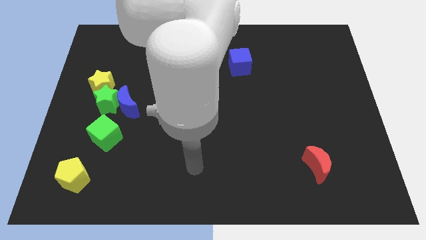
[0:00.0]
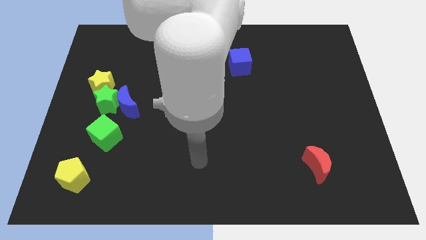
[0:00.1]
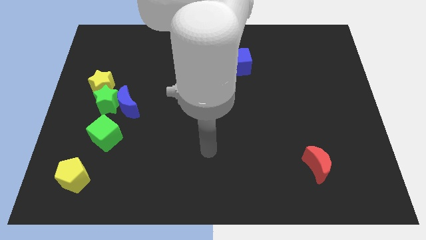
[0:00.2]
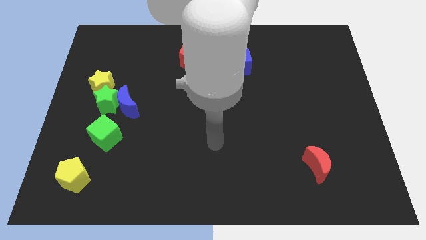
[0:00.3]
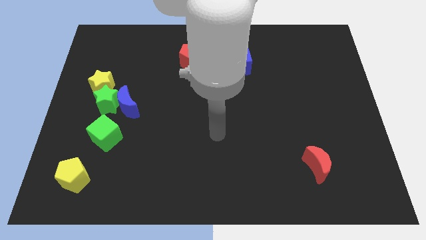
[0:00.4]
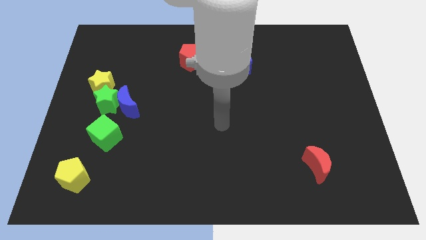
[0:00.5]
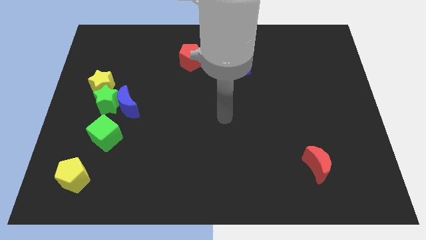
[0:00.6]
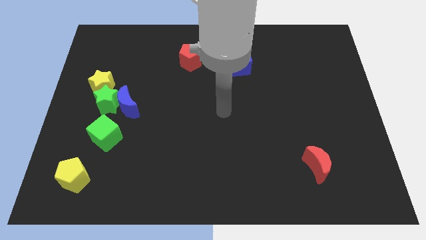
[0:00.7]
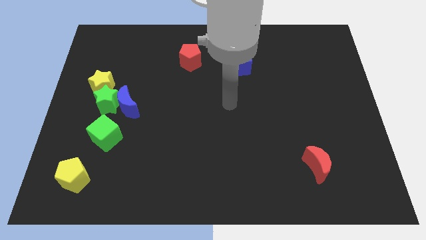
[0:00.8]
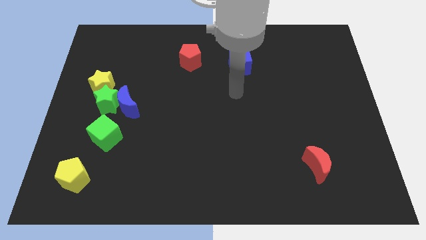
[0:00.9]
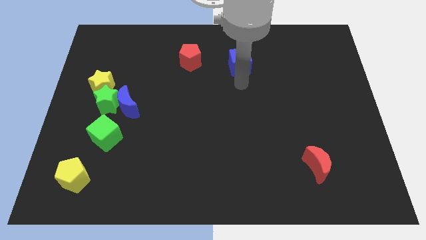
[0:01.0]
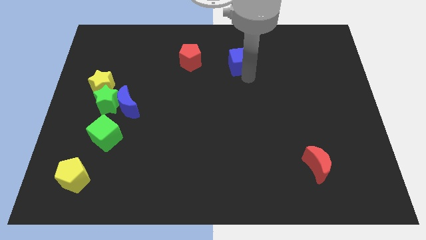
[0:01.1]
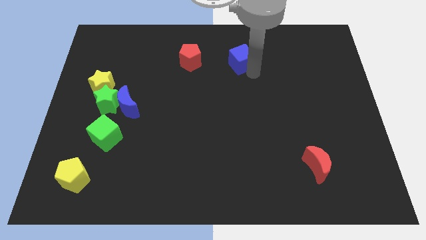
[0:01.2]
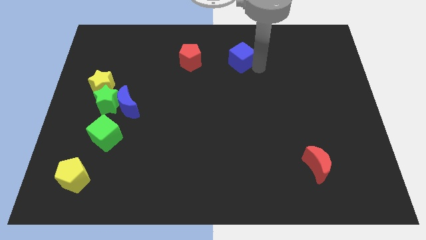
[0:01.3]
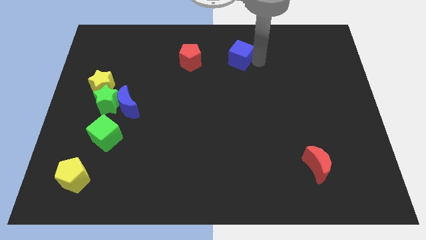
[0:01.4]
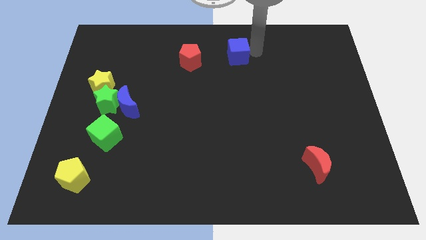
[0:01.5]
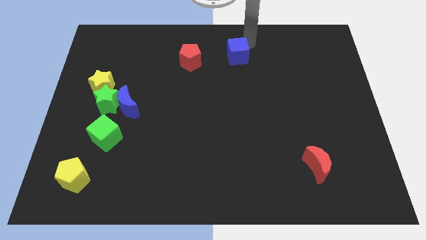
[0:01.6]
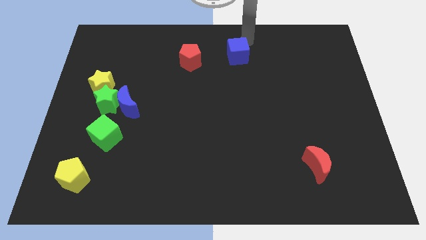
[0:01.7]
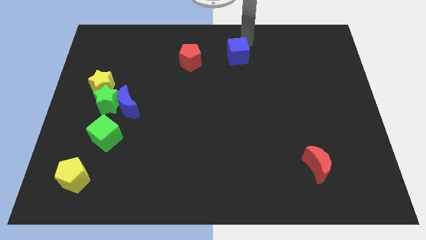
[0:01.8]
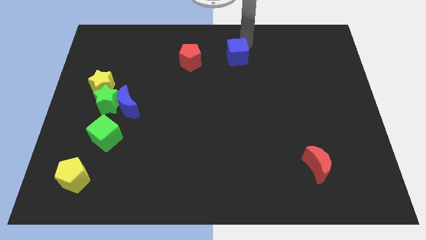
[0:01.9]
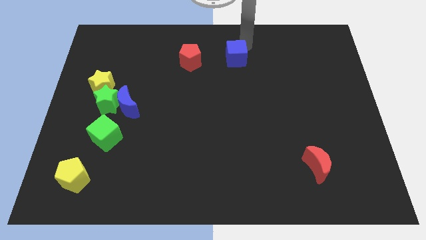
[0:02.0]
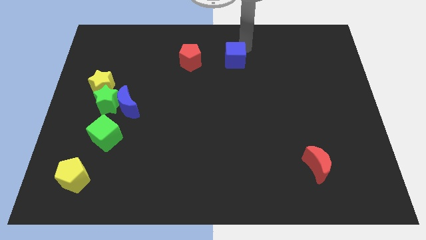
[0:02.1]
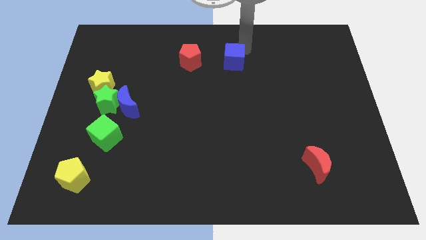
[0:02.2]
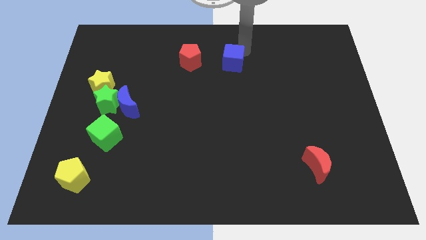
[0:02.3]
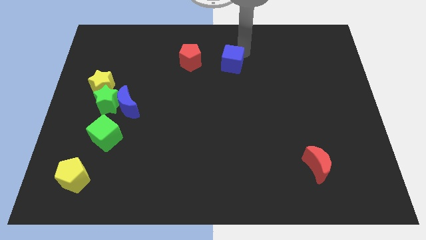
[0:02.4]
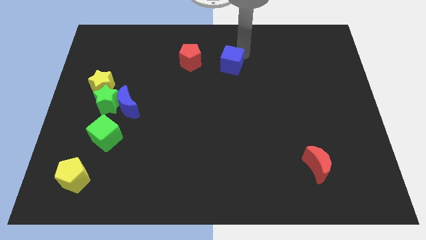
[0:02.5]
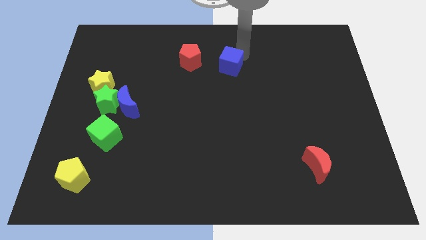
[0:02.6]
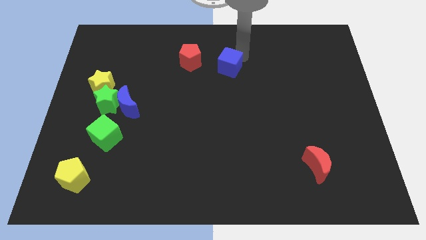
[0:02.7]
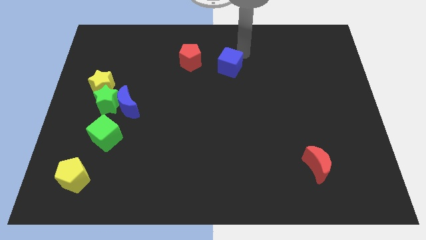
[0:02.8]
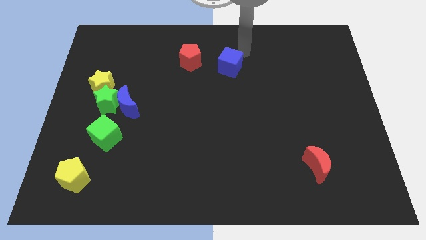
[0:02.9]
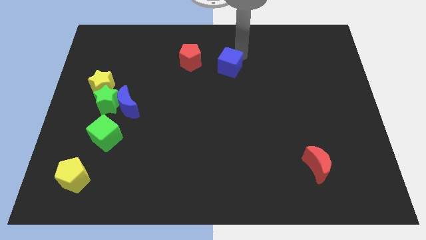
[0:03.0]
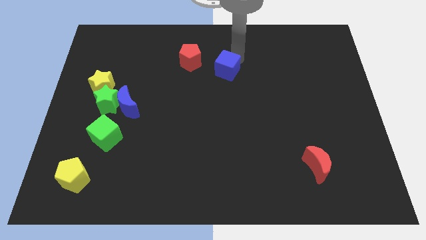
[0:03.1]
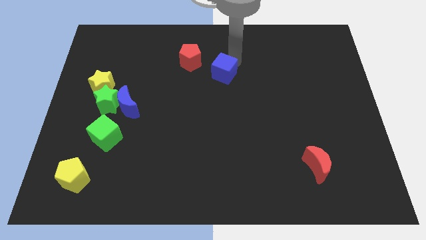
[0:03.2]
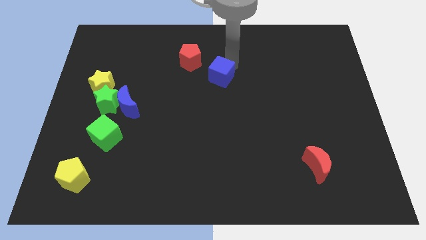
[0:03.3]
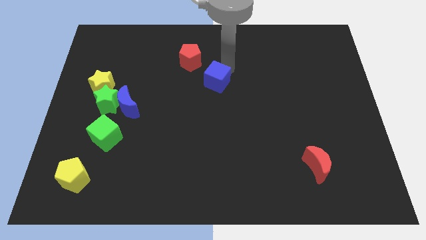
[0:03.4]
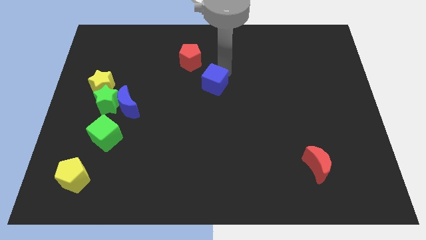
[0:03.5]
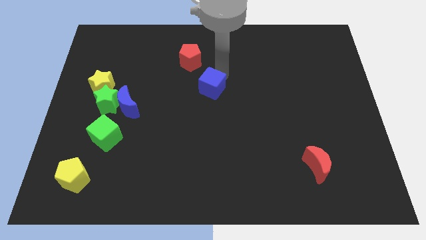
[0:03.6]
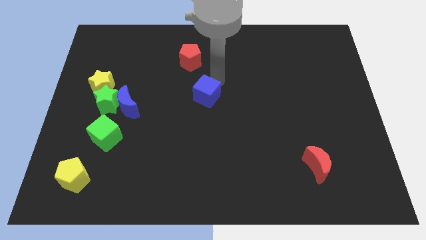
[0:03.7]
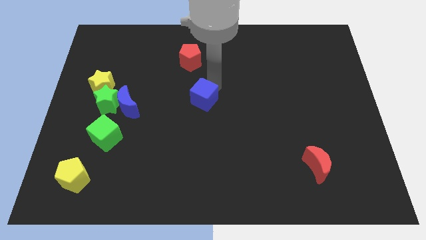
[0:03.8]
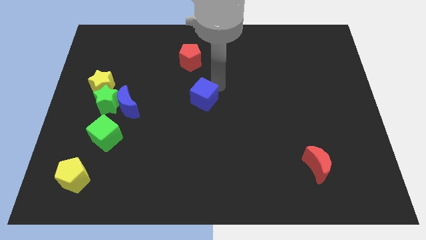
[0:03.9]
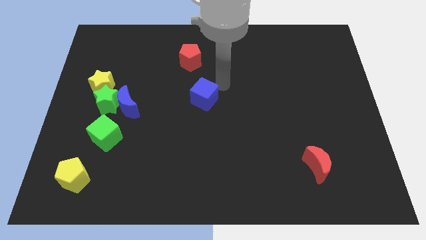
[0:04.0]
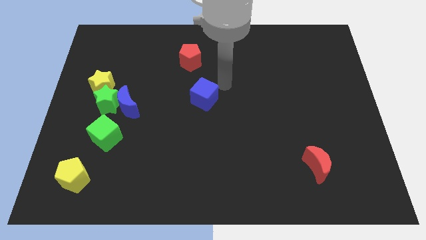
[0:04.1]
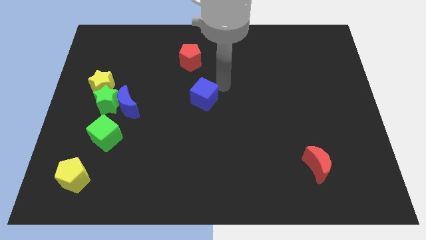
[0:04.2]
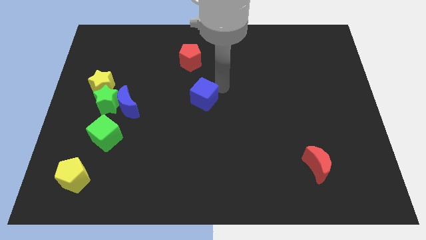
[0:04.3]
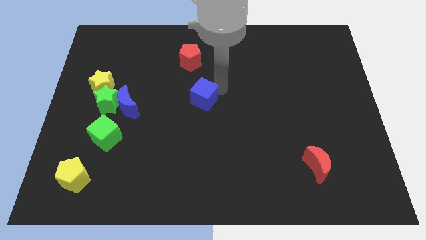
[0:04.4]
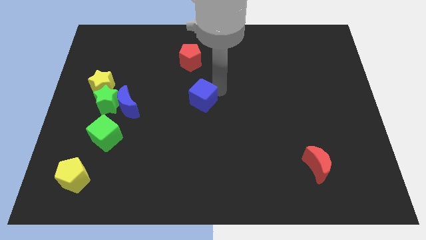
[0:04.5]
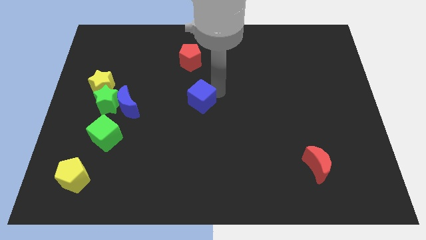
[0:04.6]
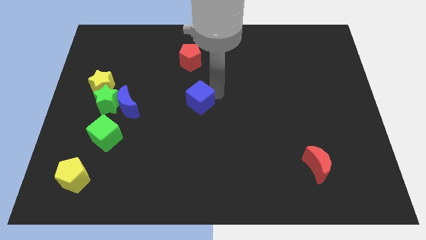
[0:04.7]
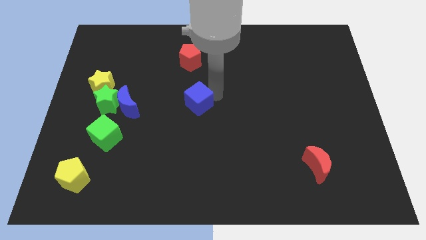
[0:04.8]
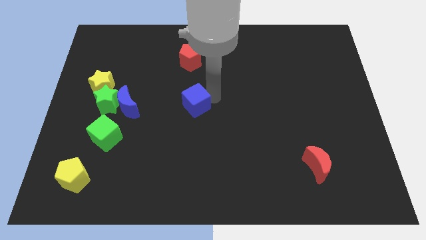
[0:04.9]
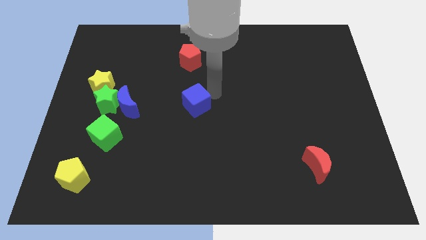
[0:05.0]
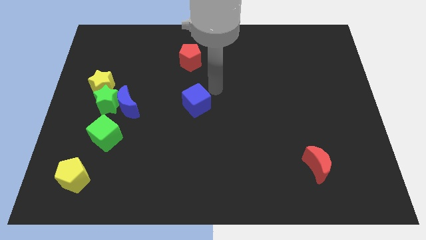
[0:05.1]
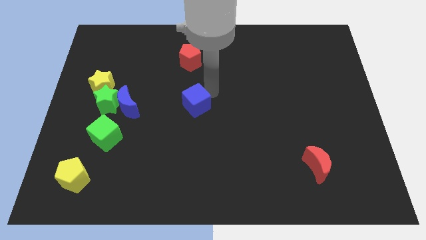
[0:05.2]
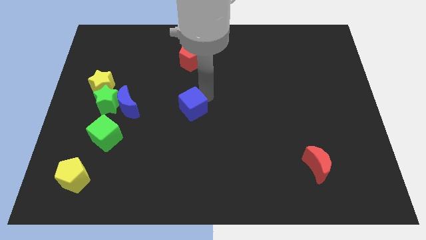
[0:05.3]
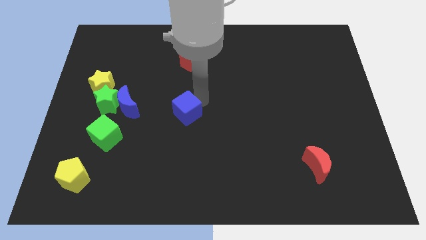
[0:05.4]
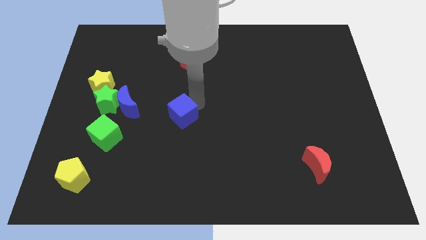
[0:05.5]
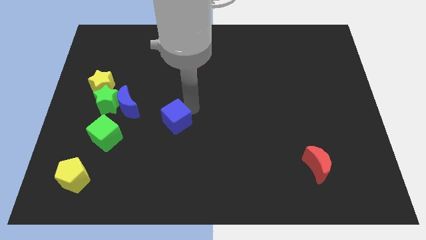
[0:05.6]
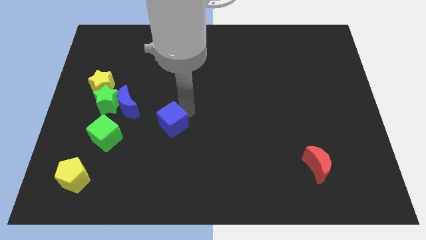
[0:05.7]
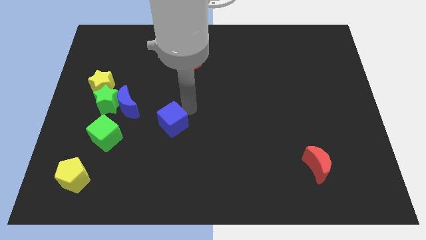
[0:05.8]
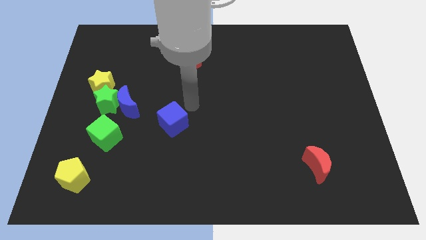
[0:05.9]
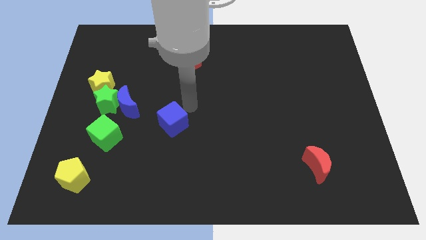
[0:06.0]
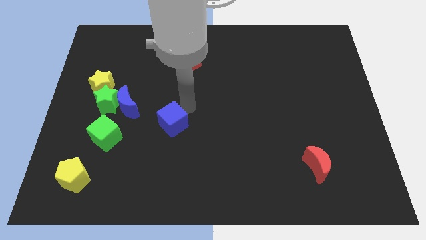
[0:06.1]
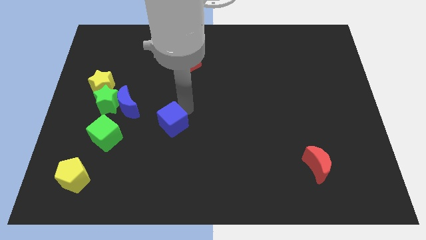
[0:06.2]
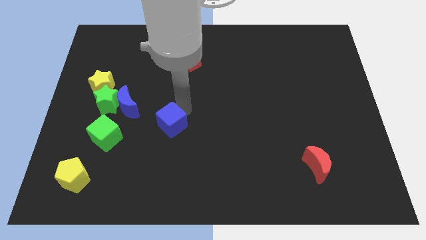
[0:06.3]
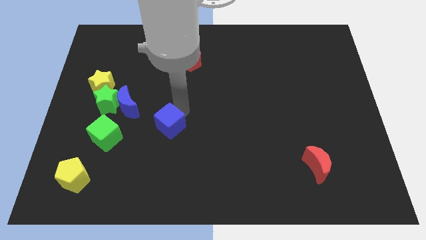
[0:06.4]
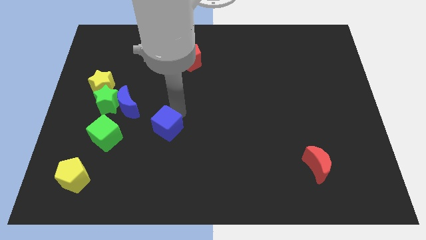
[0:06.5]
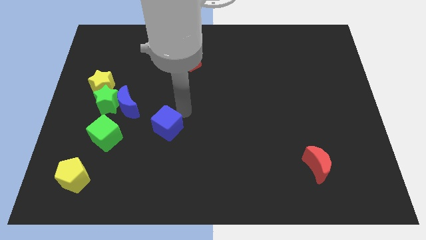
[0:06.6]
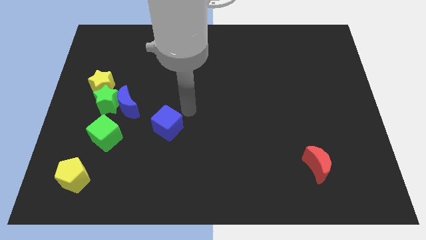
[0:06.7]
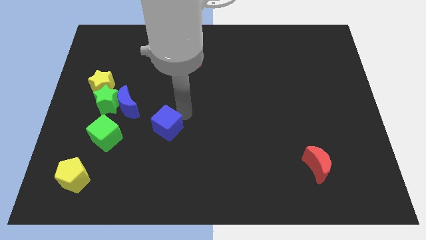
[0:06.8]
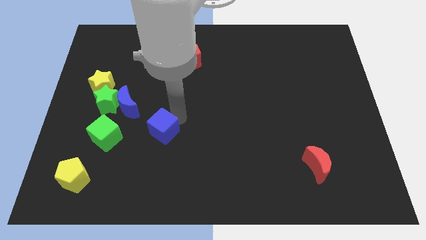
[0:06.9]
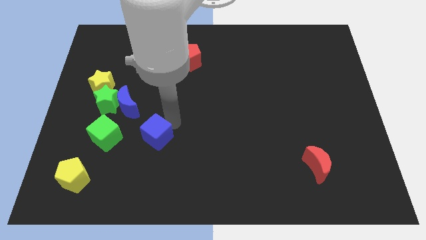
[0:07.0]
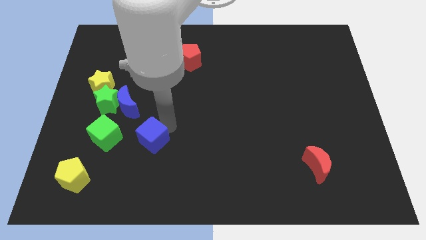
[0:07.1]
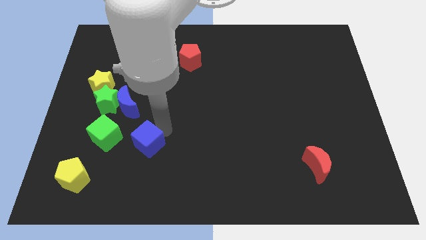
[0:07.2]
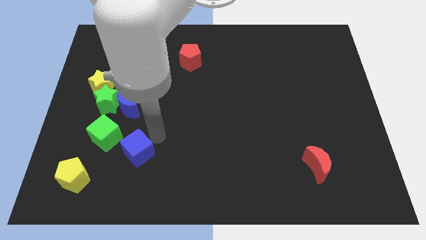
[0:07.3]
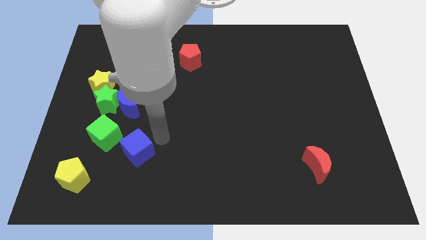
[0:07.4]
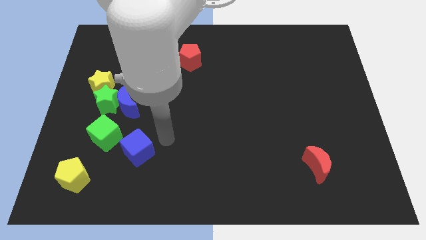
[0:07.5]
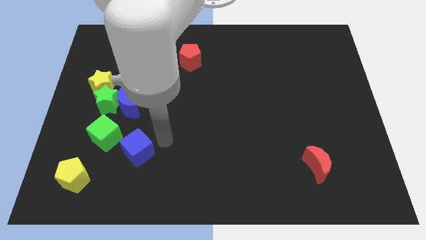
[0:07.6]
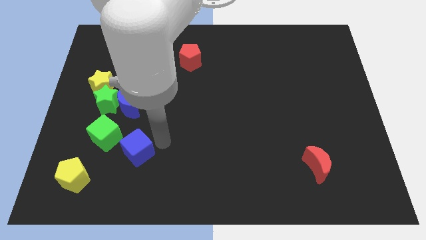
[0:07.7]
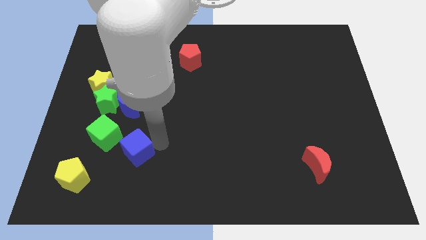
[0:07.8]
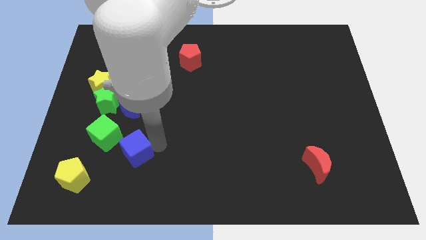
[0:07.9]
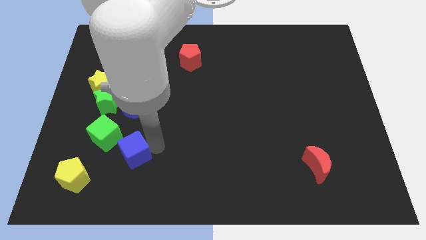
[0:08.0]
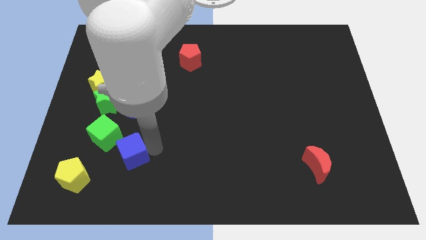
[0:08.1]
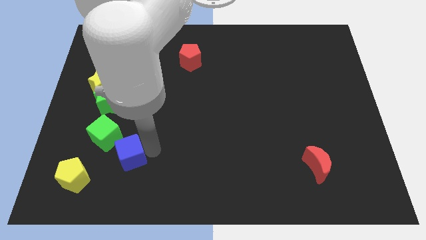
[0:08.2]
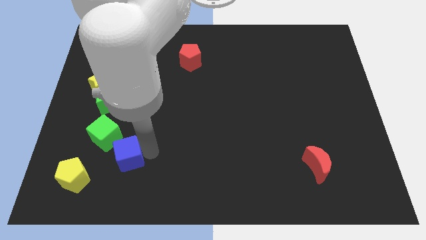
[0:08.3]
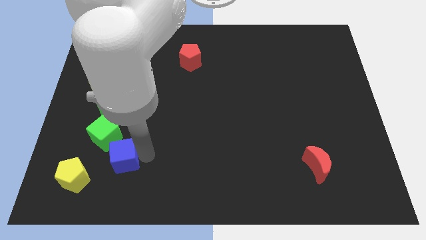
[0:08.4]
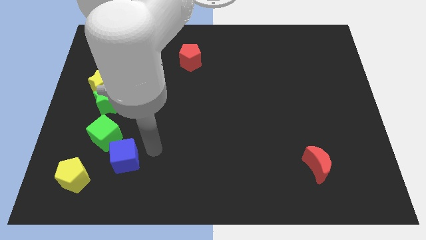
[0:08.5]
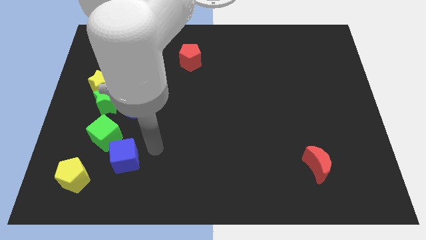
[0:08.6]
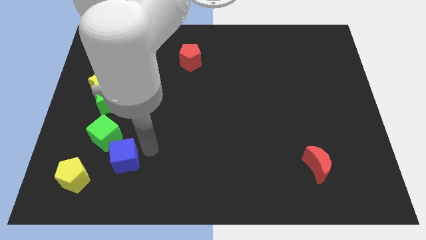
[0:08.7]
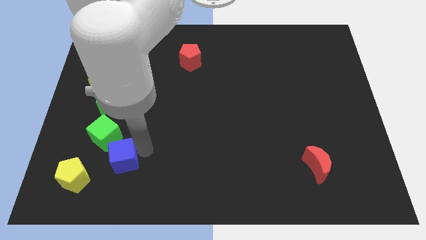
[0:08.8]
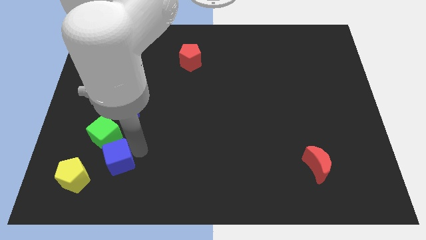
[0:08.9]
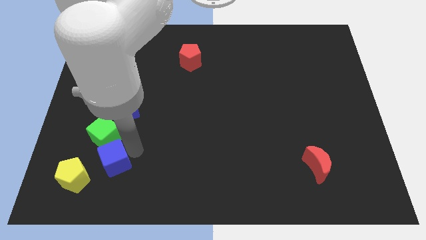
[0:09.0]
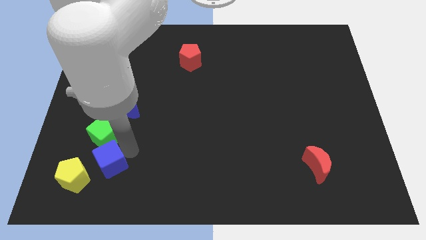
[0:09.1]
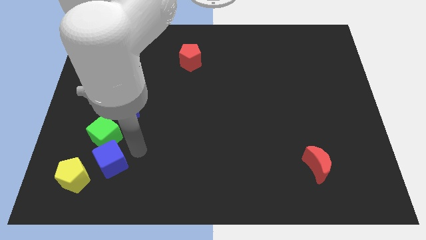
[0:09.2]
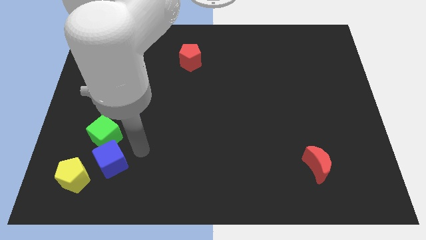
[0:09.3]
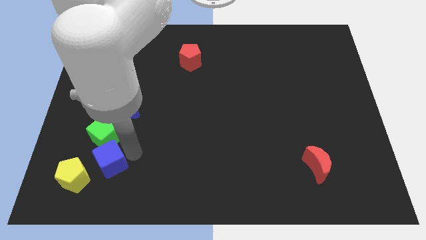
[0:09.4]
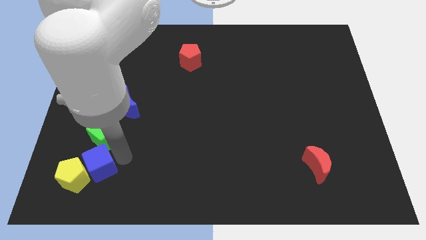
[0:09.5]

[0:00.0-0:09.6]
slide the blue cube next to the yellow pentagon
